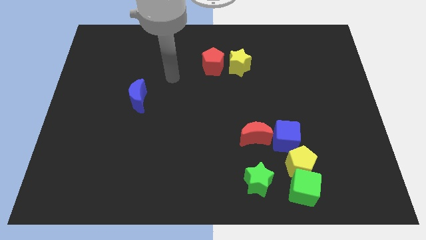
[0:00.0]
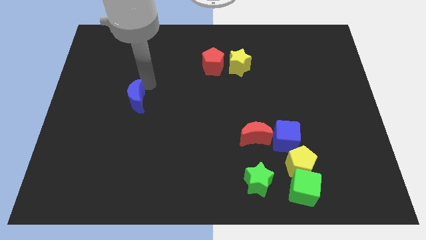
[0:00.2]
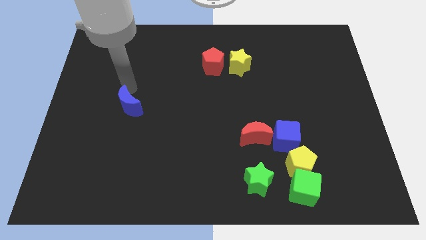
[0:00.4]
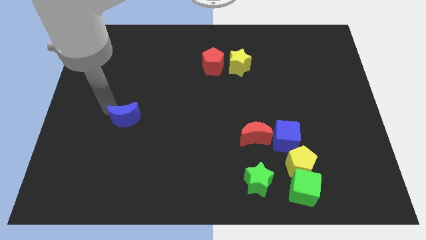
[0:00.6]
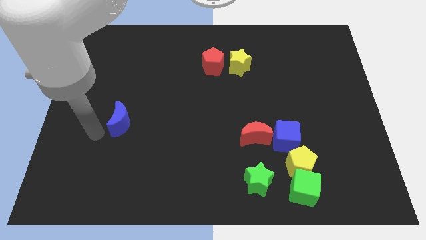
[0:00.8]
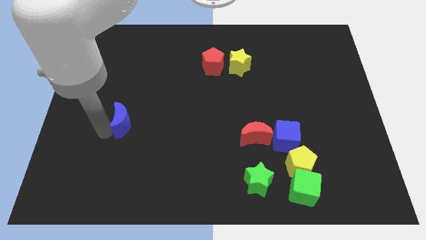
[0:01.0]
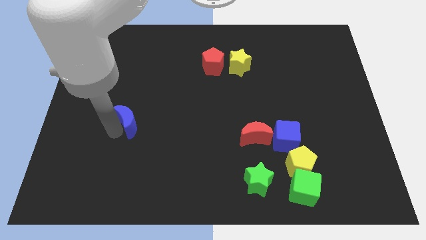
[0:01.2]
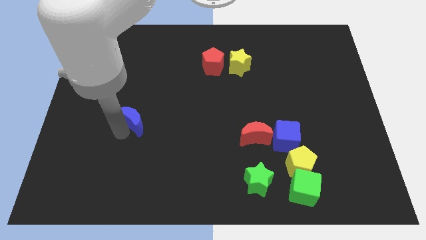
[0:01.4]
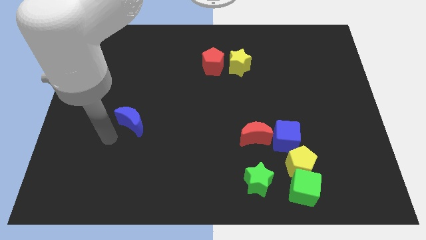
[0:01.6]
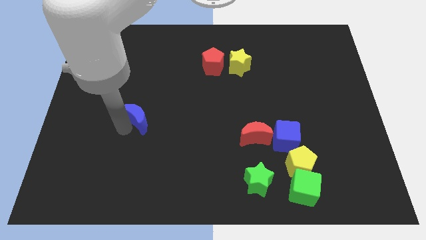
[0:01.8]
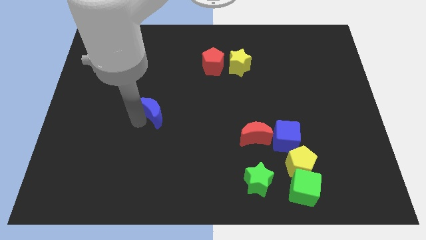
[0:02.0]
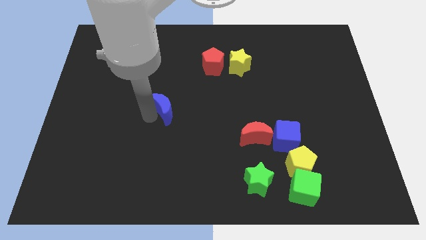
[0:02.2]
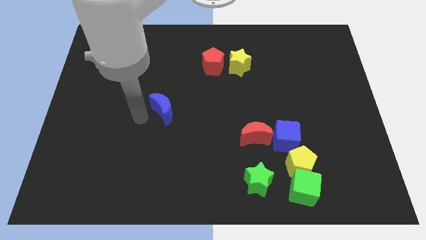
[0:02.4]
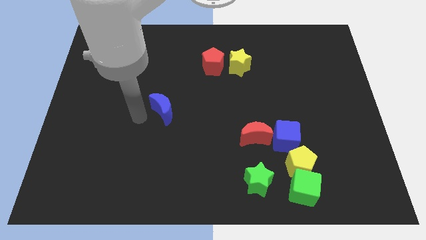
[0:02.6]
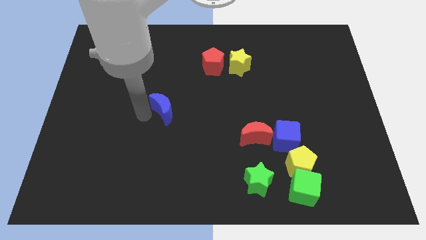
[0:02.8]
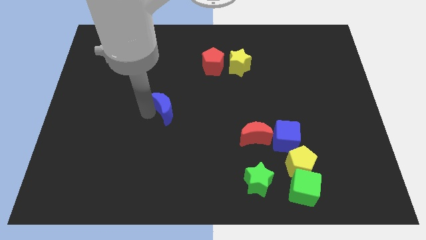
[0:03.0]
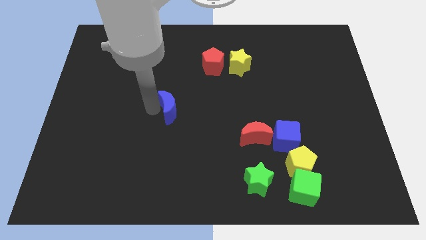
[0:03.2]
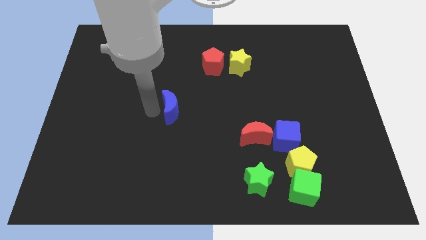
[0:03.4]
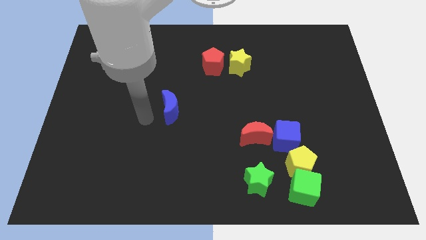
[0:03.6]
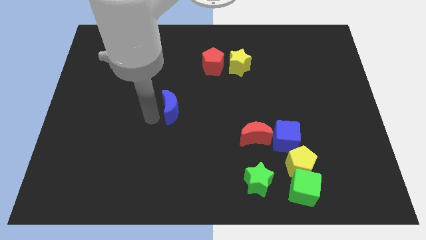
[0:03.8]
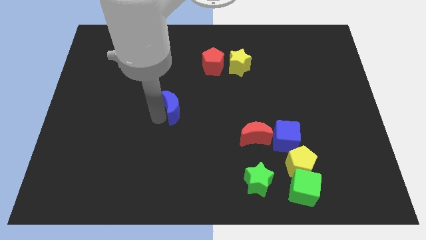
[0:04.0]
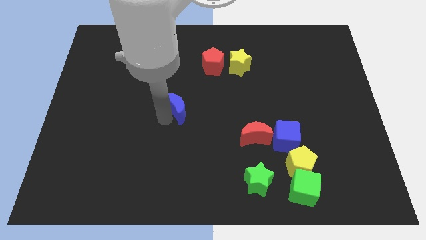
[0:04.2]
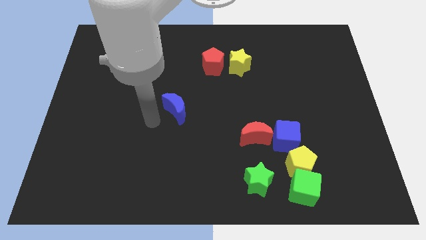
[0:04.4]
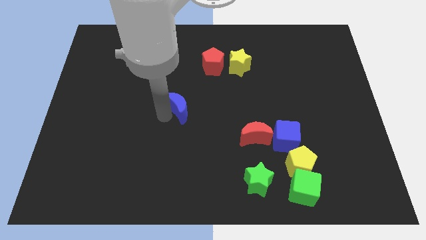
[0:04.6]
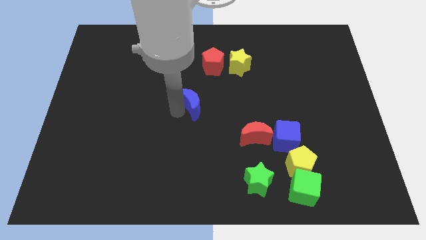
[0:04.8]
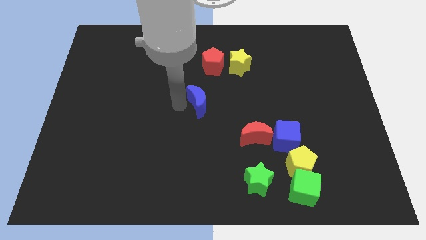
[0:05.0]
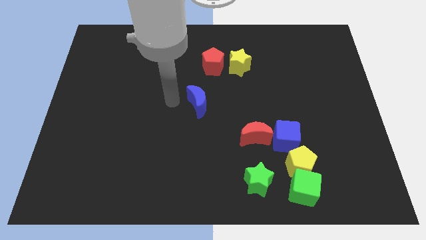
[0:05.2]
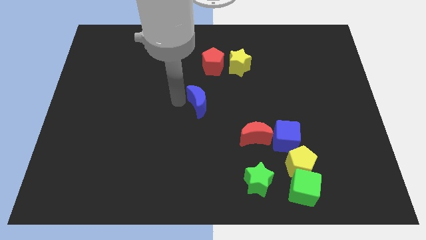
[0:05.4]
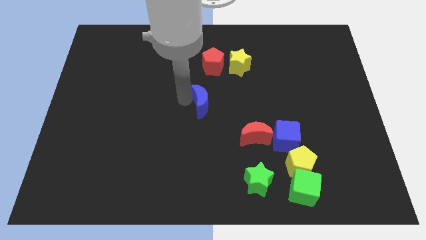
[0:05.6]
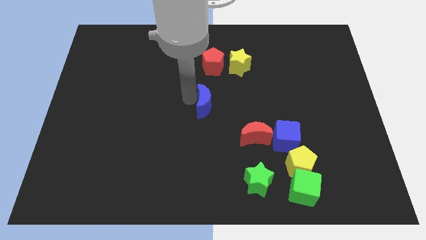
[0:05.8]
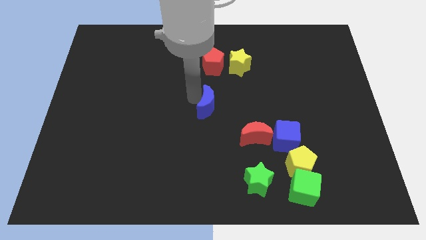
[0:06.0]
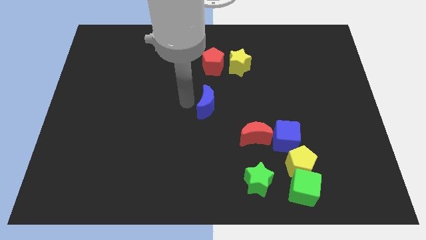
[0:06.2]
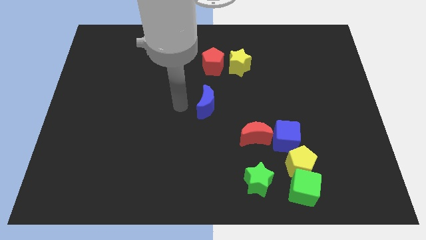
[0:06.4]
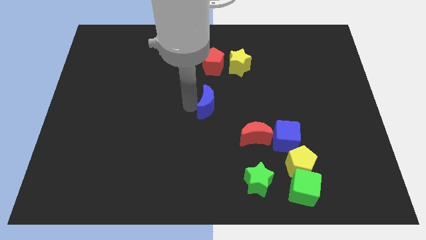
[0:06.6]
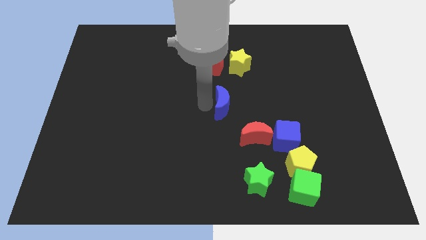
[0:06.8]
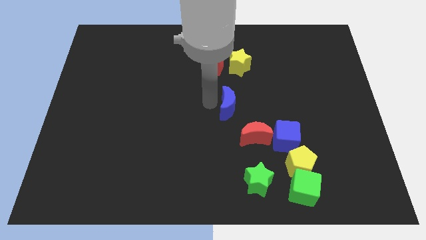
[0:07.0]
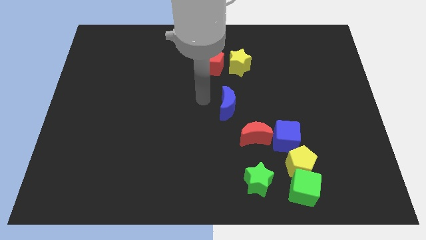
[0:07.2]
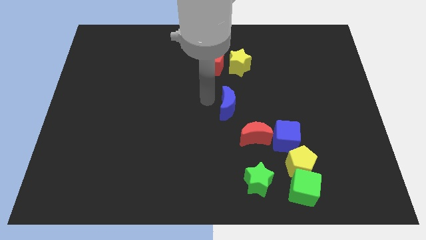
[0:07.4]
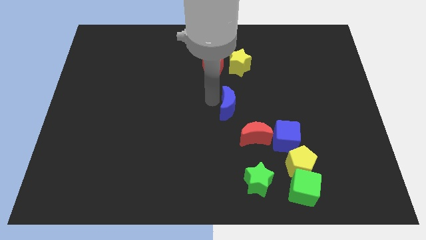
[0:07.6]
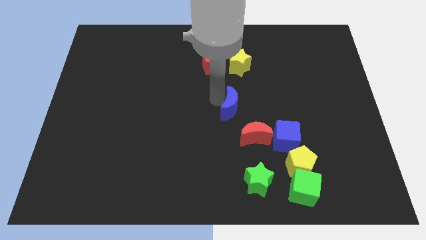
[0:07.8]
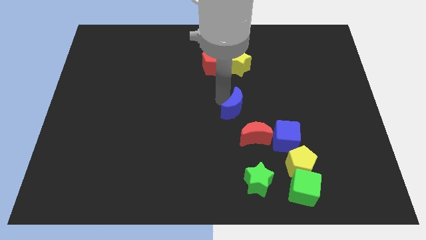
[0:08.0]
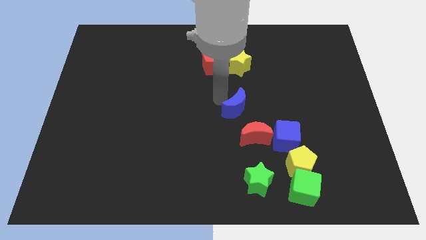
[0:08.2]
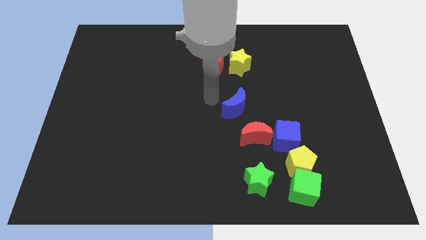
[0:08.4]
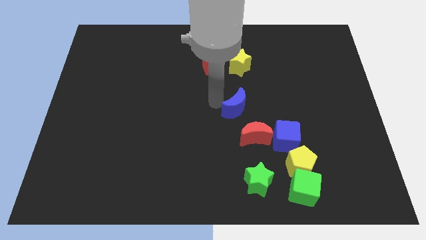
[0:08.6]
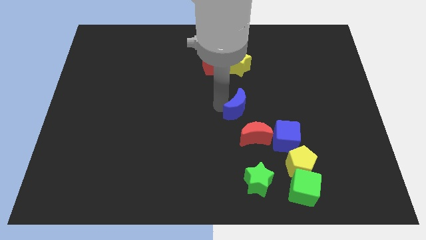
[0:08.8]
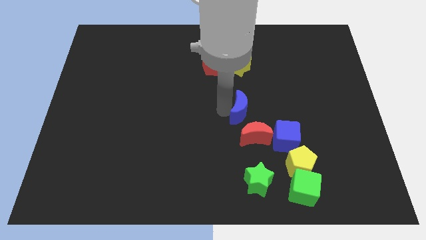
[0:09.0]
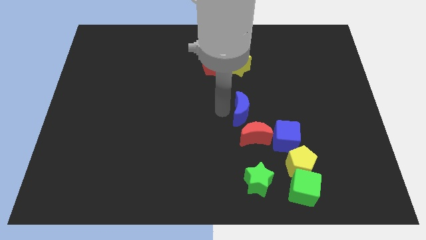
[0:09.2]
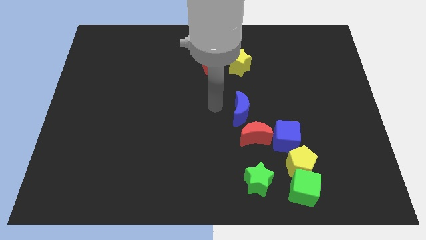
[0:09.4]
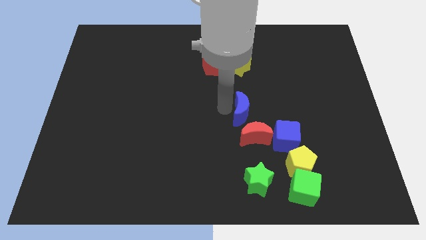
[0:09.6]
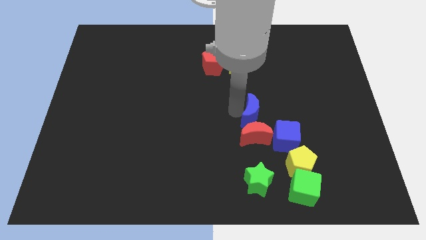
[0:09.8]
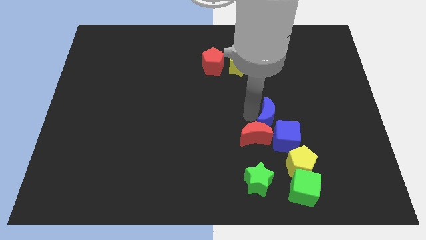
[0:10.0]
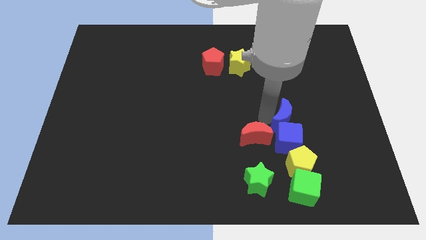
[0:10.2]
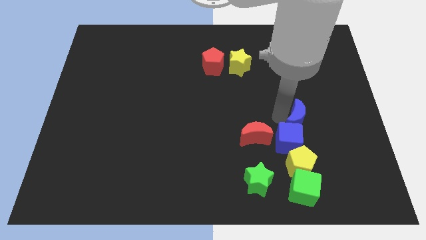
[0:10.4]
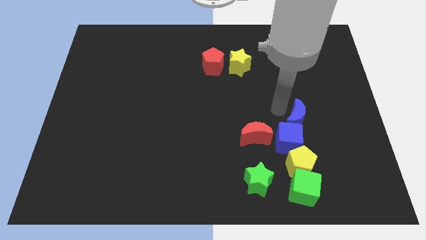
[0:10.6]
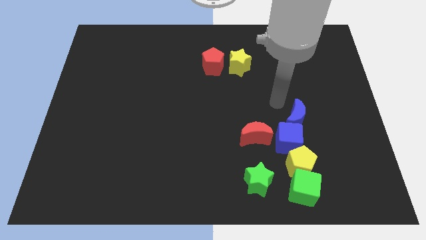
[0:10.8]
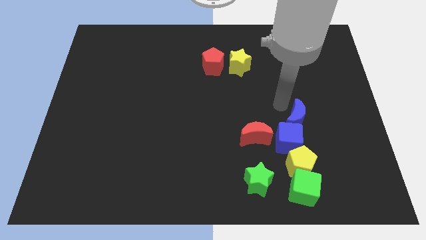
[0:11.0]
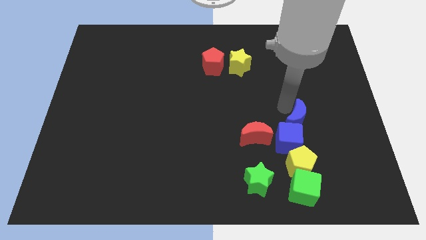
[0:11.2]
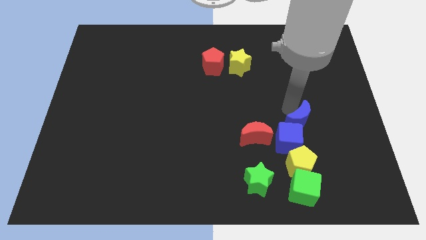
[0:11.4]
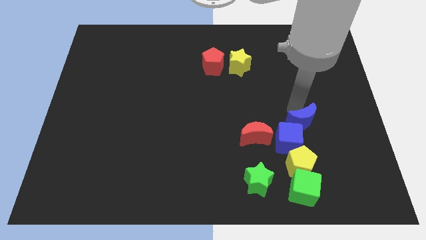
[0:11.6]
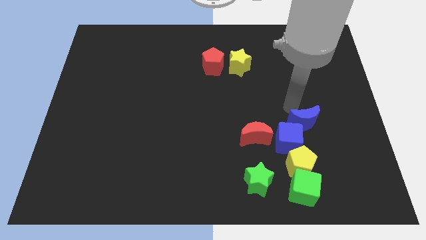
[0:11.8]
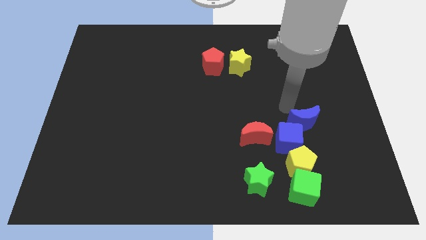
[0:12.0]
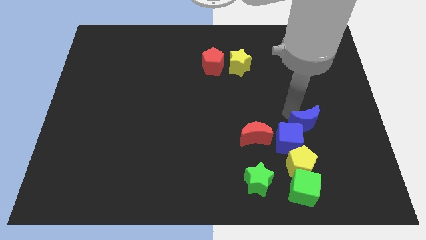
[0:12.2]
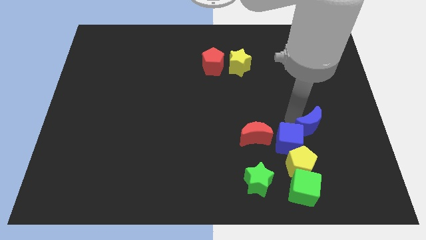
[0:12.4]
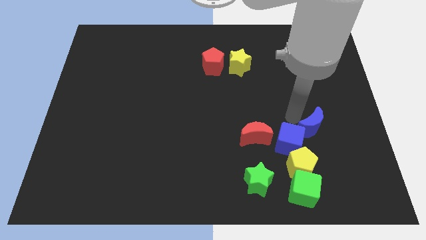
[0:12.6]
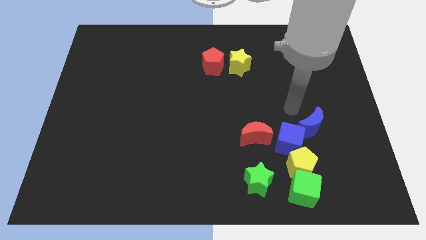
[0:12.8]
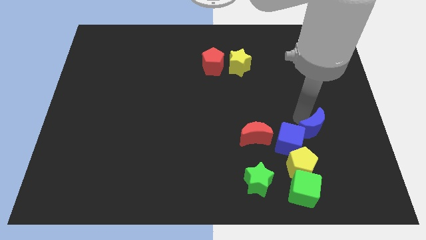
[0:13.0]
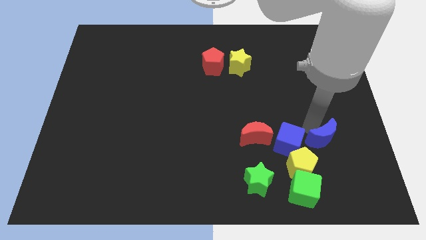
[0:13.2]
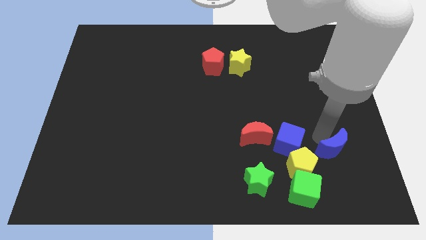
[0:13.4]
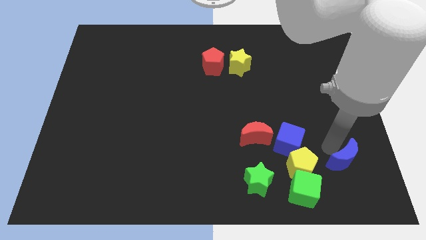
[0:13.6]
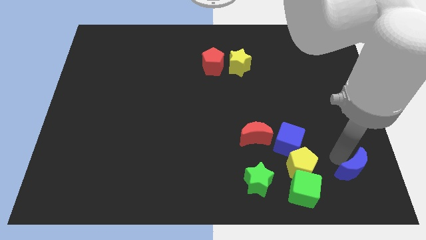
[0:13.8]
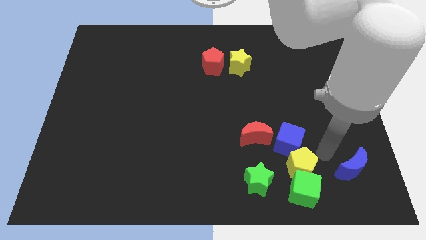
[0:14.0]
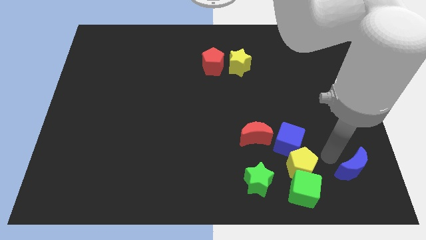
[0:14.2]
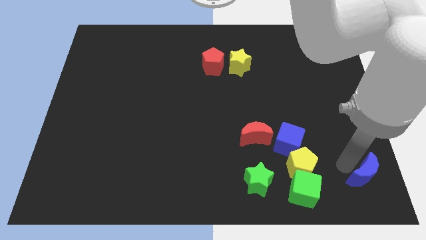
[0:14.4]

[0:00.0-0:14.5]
put the blue moon to the lower right corner
